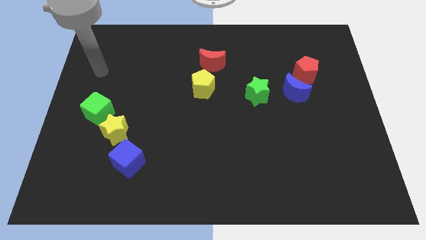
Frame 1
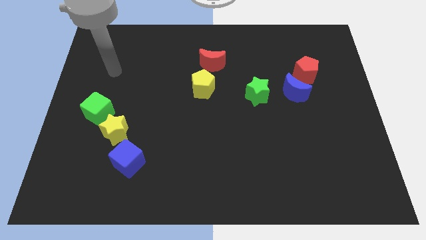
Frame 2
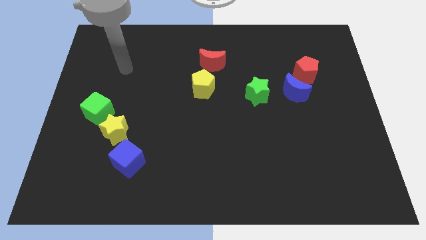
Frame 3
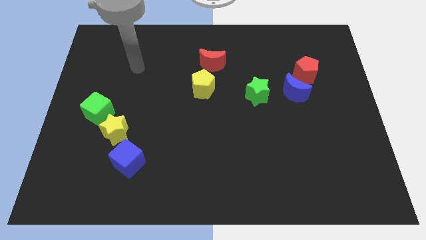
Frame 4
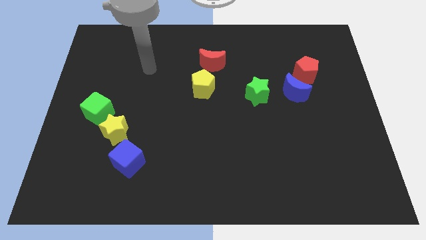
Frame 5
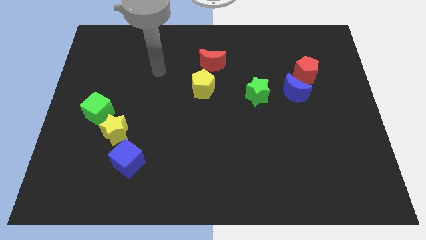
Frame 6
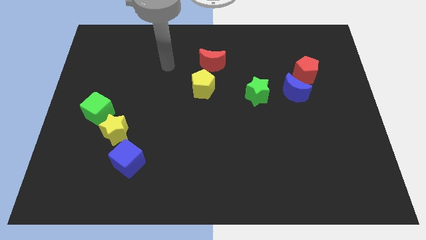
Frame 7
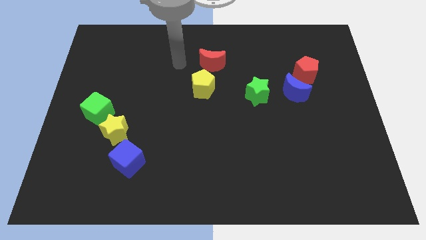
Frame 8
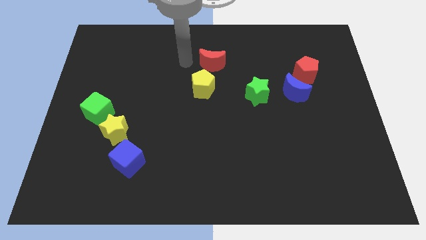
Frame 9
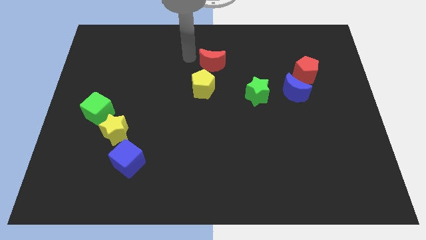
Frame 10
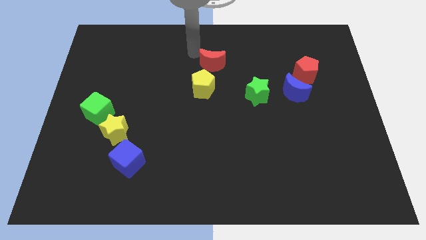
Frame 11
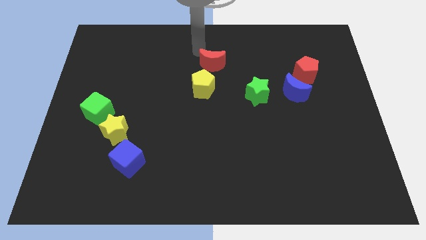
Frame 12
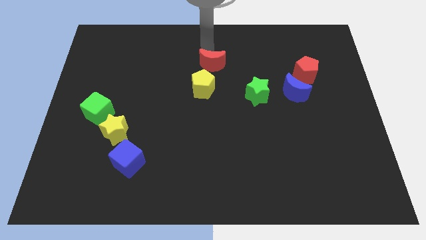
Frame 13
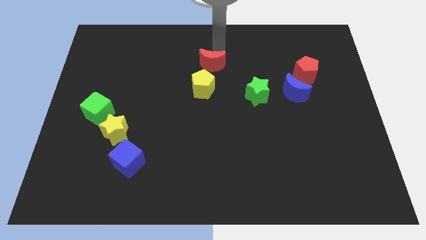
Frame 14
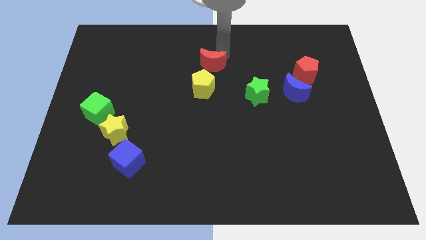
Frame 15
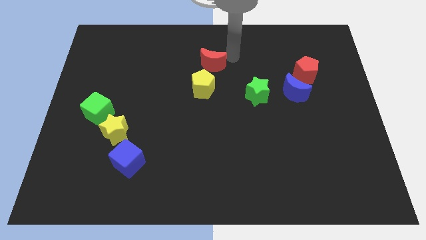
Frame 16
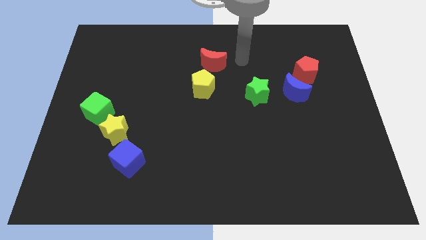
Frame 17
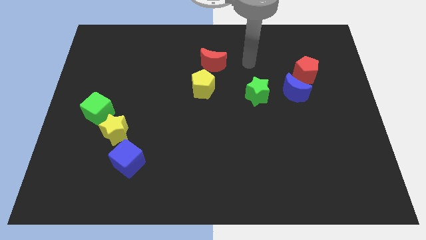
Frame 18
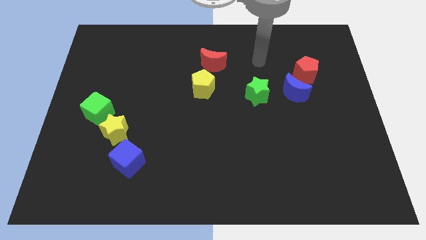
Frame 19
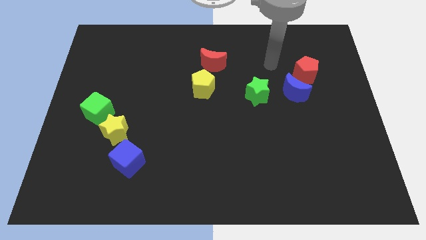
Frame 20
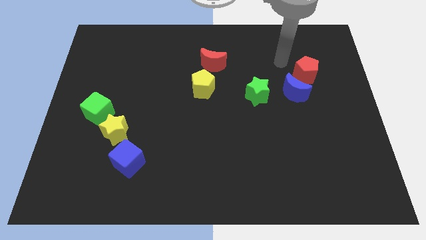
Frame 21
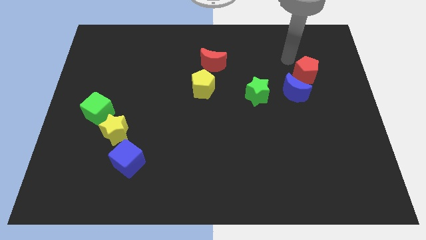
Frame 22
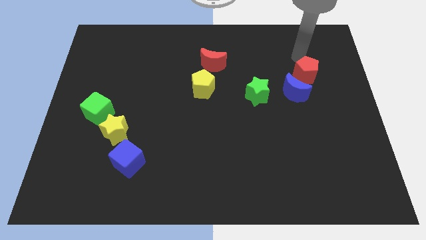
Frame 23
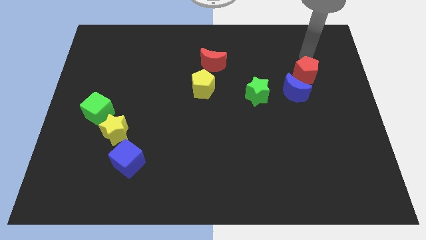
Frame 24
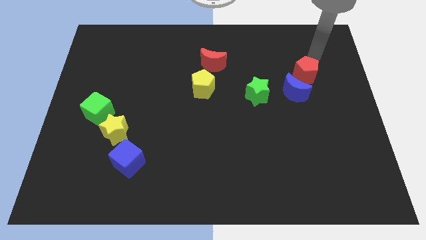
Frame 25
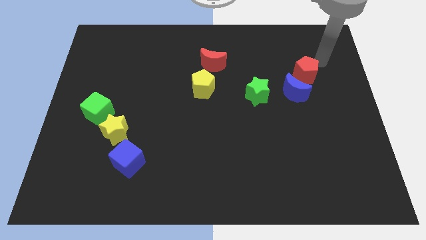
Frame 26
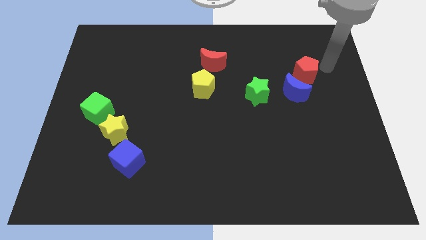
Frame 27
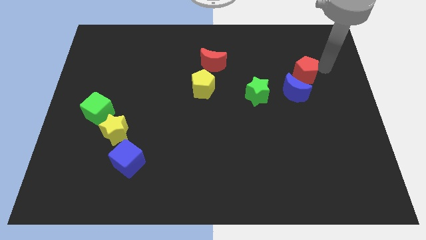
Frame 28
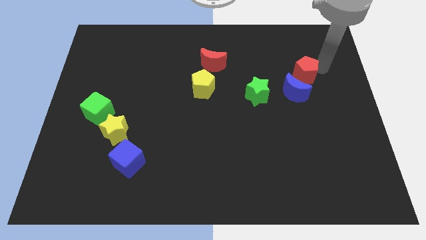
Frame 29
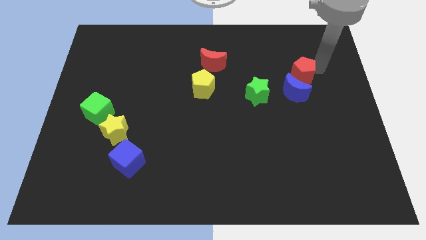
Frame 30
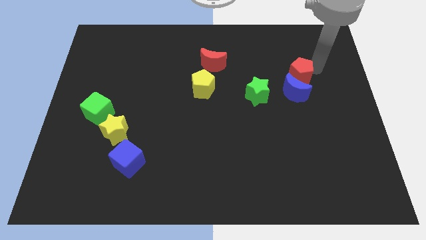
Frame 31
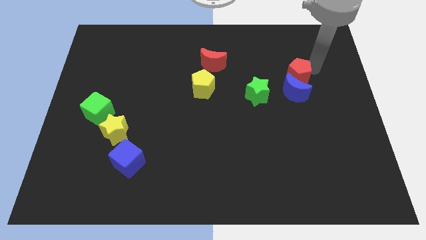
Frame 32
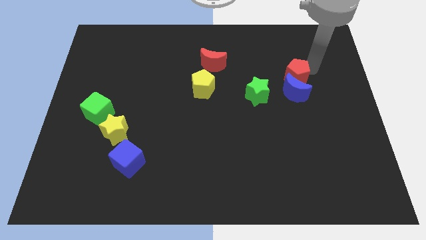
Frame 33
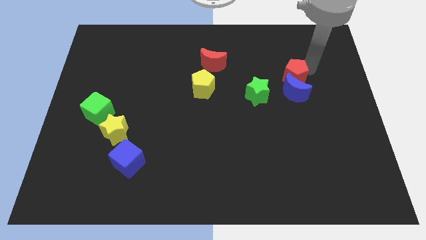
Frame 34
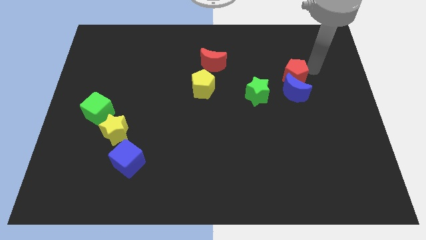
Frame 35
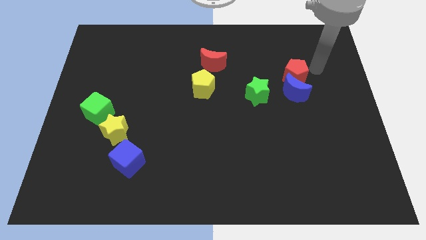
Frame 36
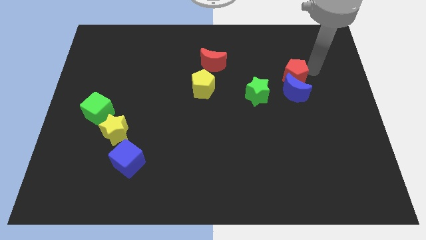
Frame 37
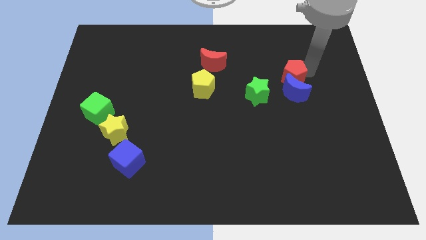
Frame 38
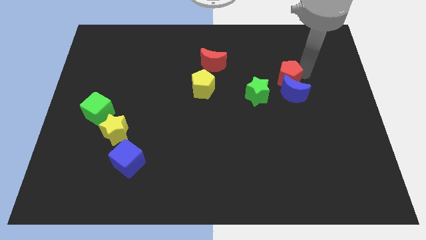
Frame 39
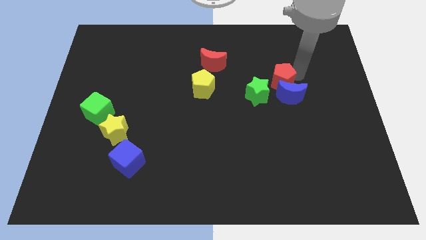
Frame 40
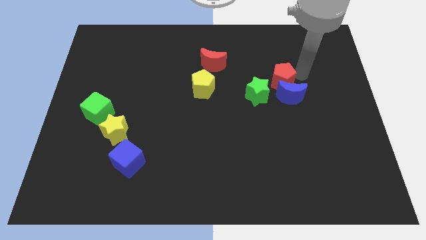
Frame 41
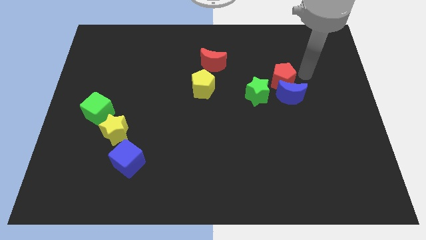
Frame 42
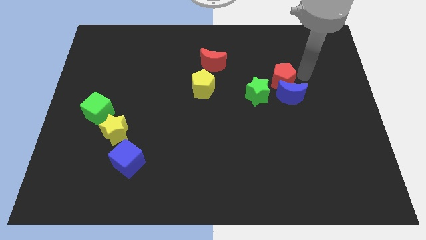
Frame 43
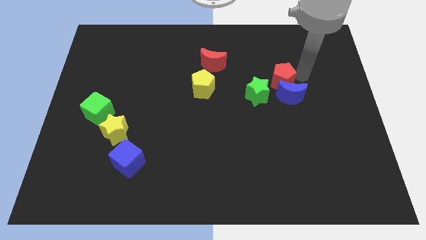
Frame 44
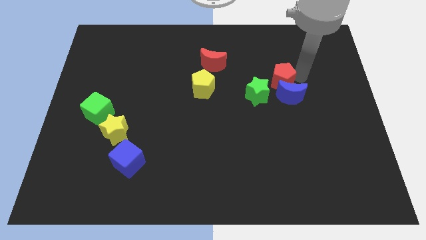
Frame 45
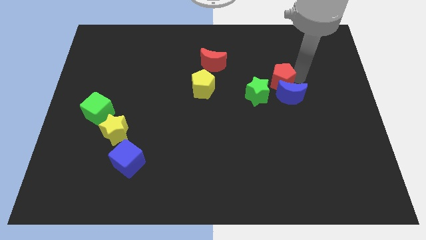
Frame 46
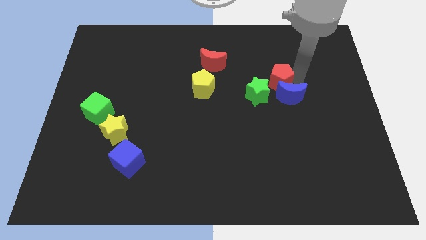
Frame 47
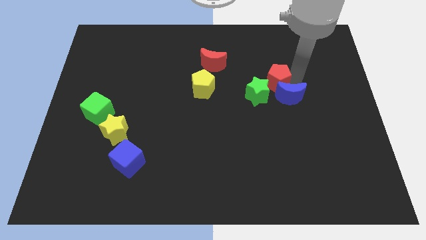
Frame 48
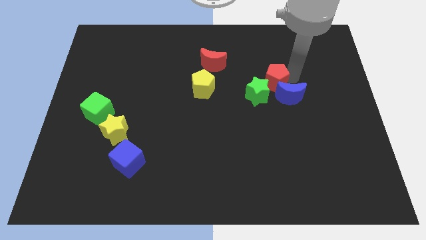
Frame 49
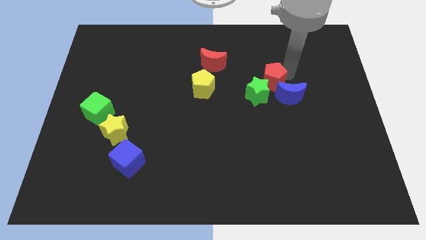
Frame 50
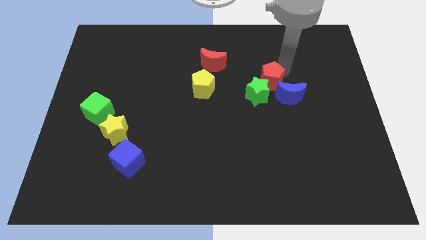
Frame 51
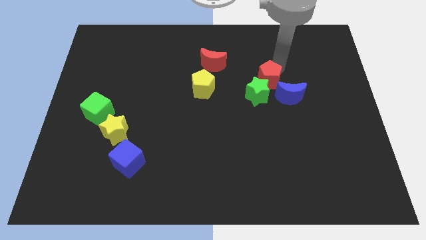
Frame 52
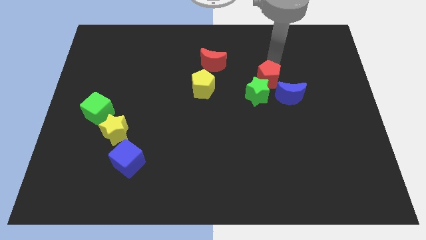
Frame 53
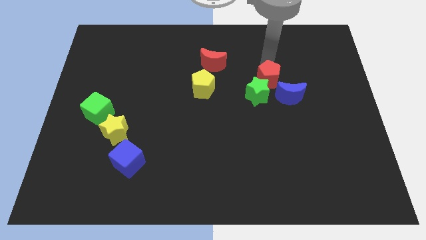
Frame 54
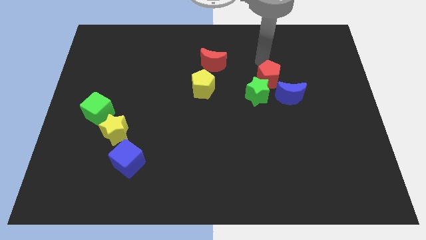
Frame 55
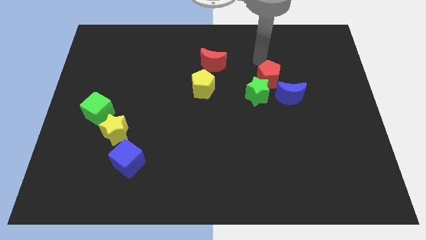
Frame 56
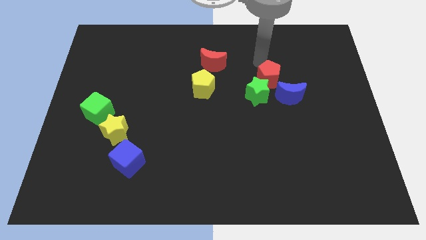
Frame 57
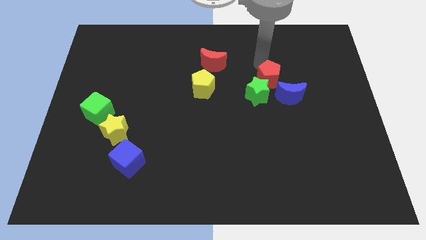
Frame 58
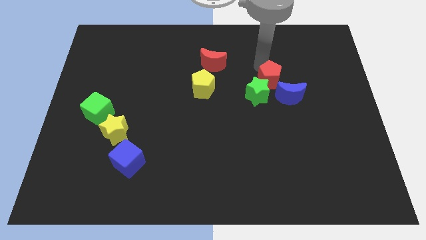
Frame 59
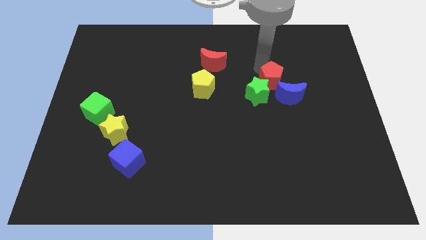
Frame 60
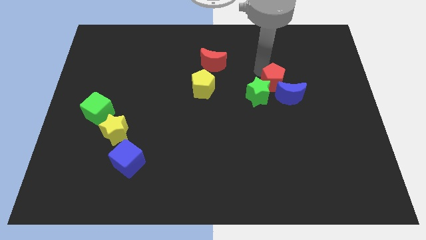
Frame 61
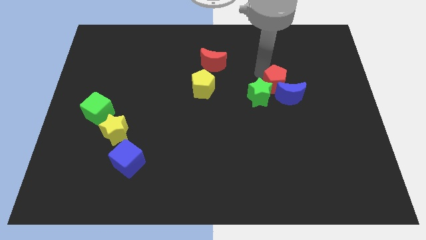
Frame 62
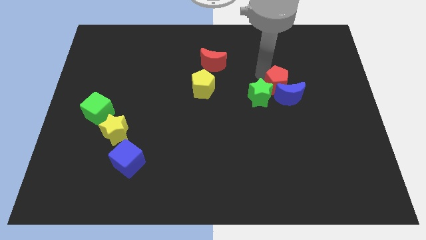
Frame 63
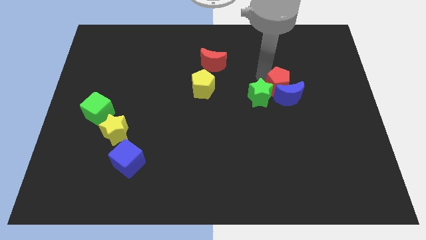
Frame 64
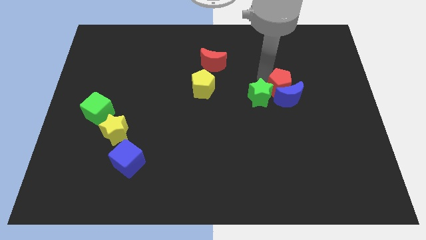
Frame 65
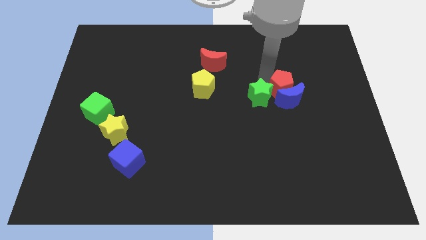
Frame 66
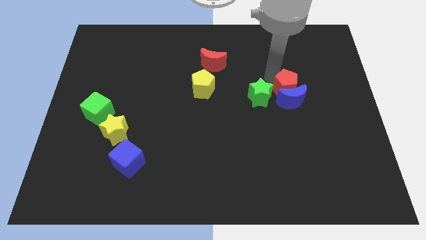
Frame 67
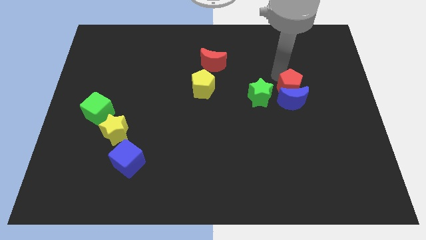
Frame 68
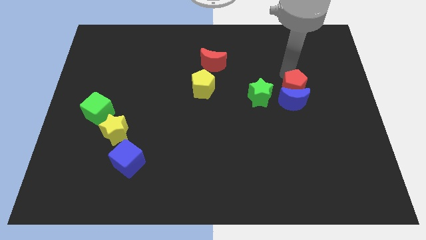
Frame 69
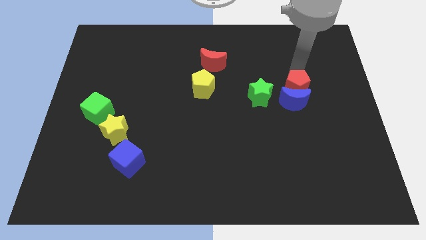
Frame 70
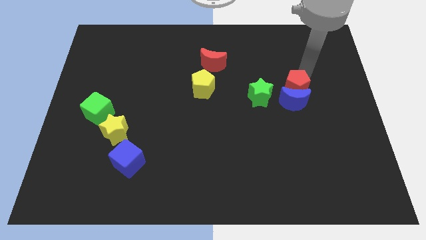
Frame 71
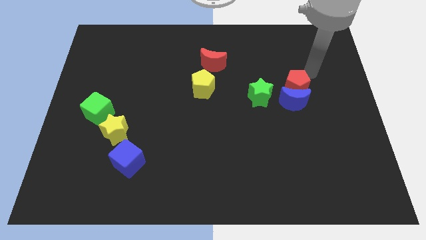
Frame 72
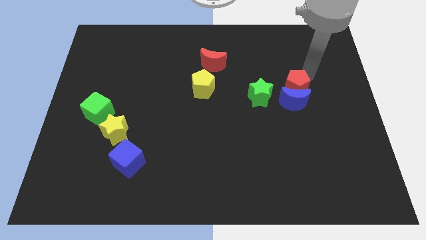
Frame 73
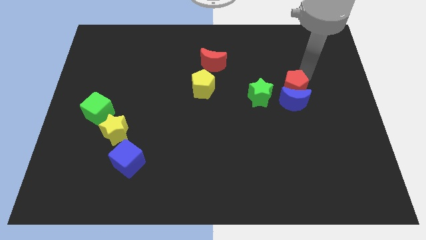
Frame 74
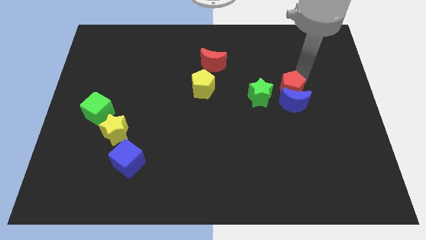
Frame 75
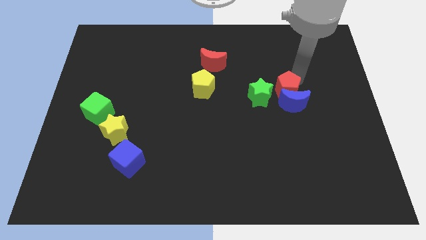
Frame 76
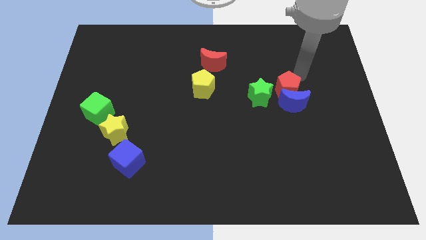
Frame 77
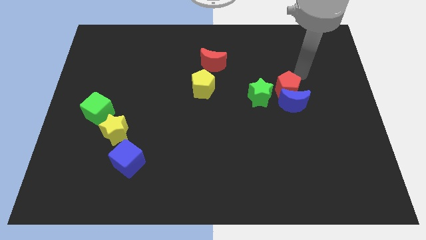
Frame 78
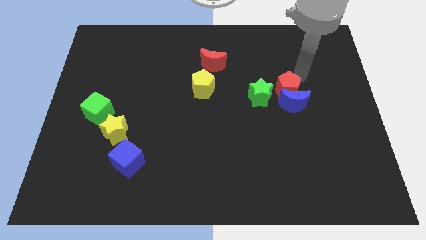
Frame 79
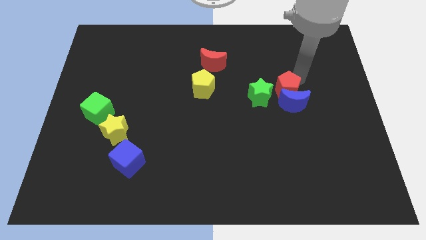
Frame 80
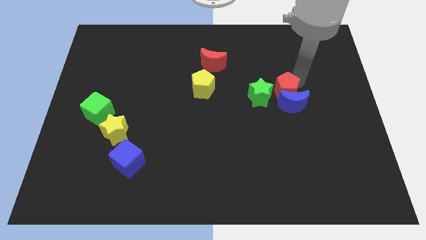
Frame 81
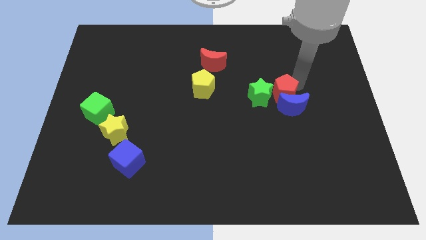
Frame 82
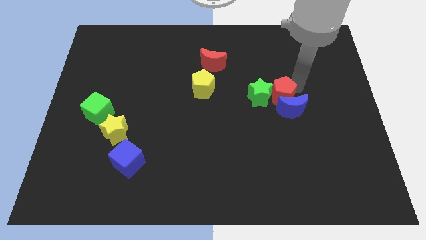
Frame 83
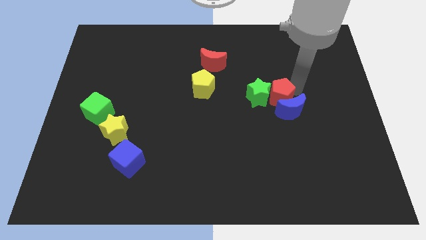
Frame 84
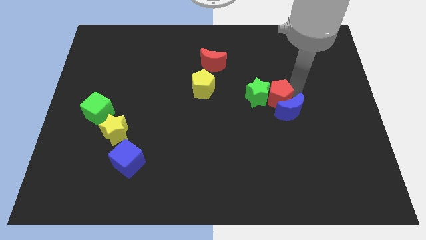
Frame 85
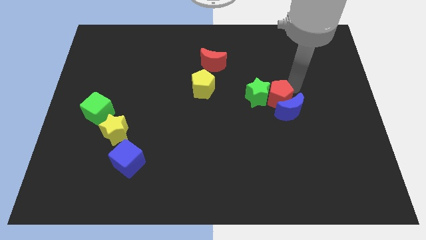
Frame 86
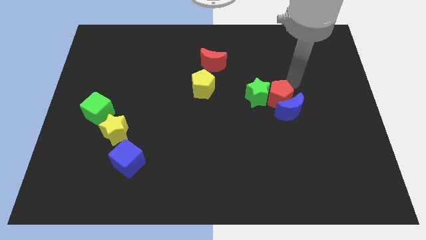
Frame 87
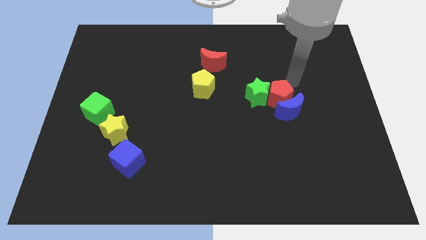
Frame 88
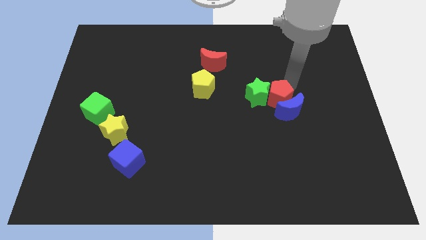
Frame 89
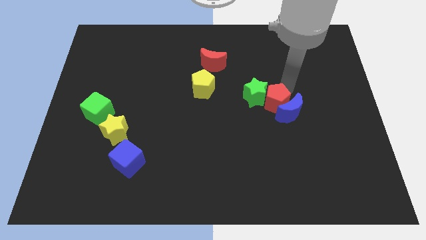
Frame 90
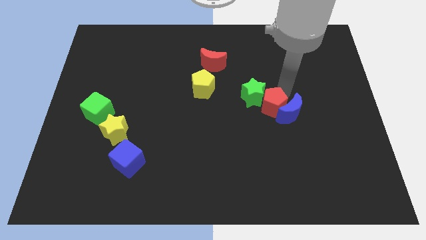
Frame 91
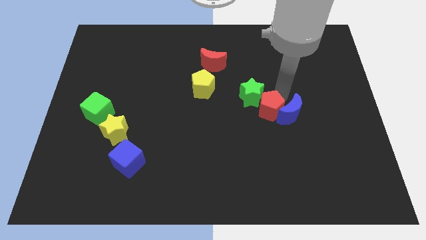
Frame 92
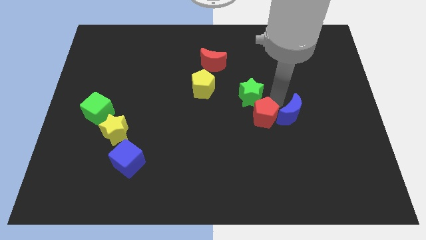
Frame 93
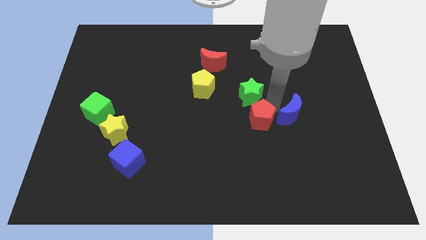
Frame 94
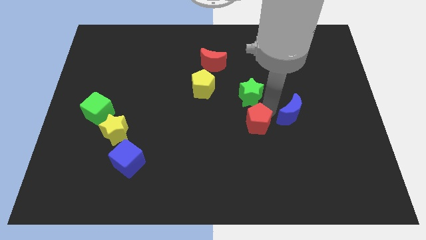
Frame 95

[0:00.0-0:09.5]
move the red pentagon downwards and then to the left
